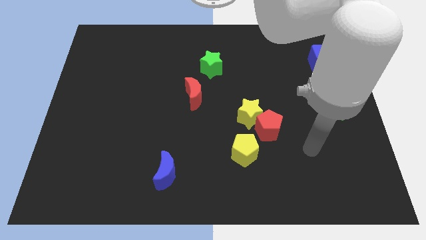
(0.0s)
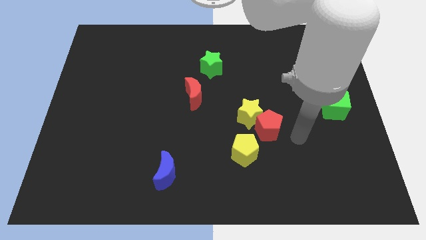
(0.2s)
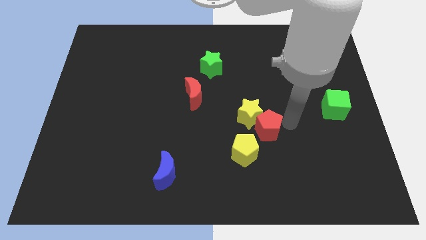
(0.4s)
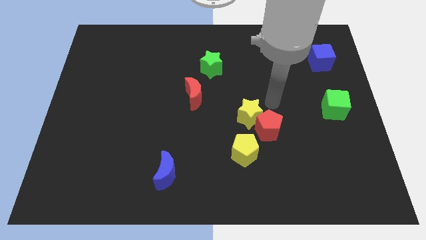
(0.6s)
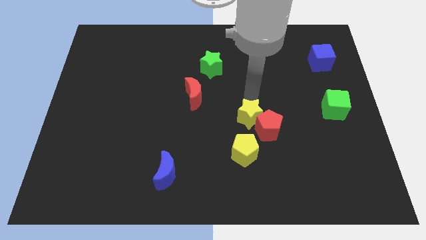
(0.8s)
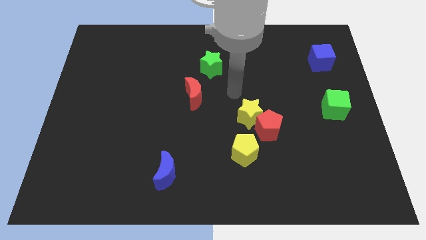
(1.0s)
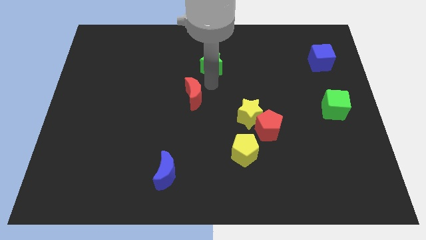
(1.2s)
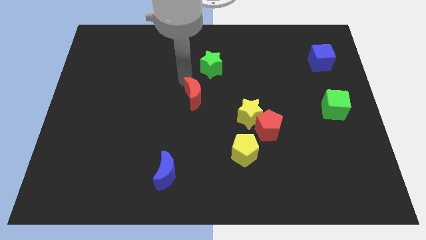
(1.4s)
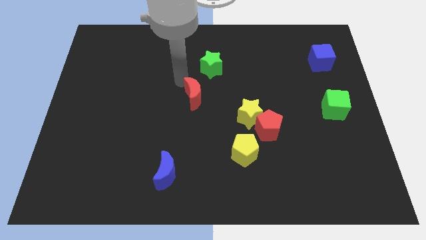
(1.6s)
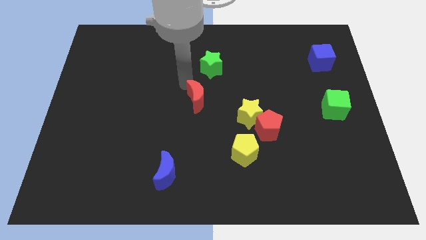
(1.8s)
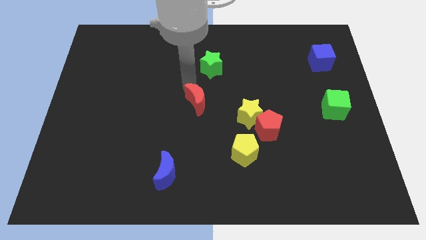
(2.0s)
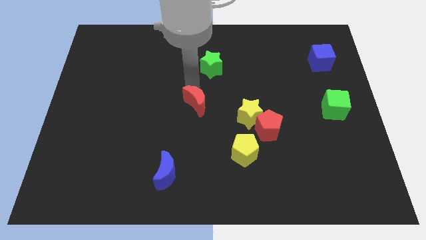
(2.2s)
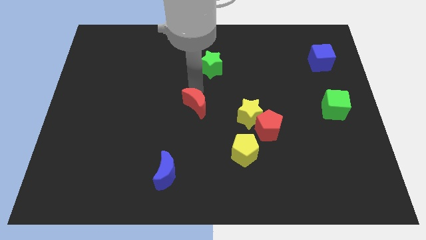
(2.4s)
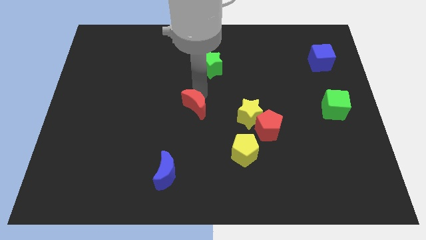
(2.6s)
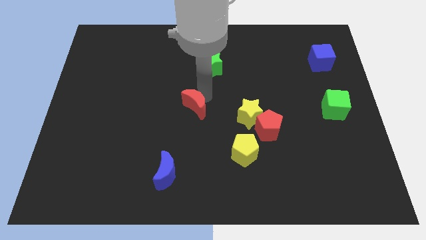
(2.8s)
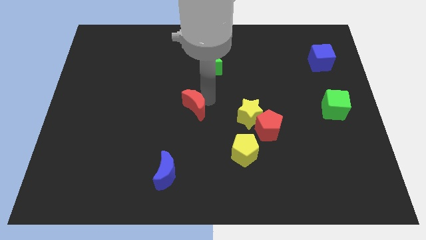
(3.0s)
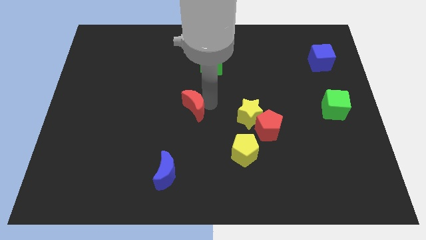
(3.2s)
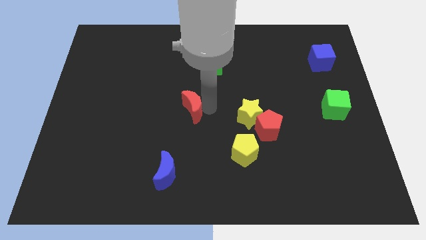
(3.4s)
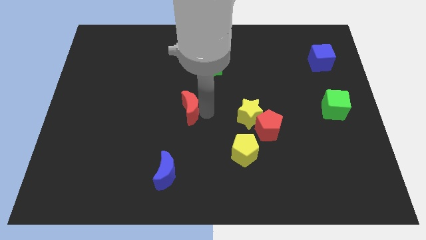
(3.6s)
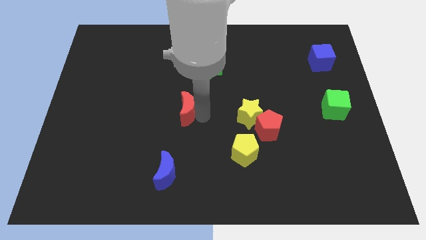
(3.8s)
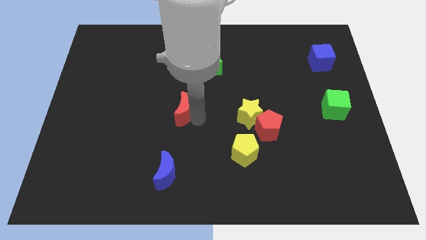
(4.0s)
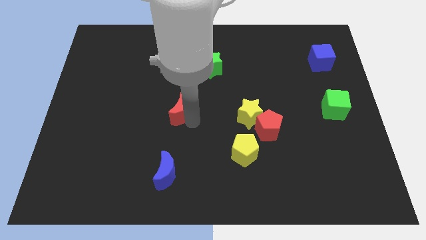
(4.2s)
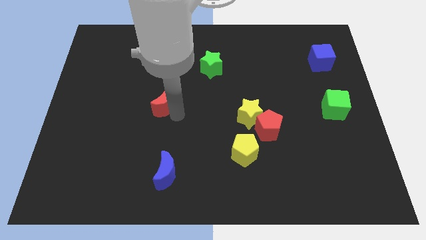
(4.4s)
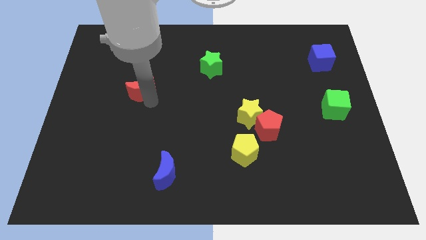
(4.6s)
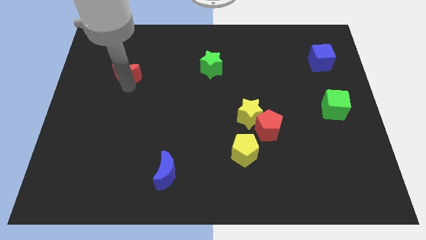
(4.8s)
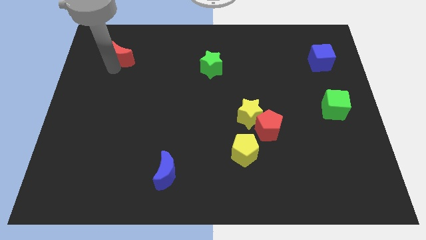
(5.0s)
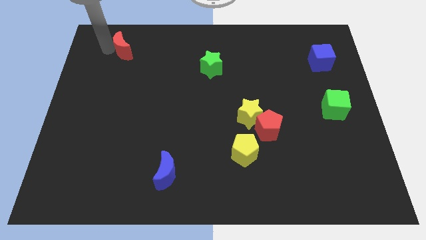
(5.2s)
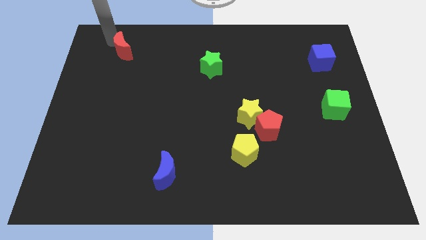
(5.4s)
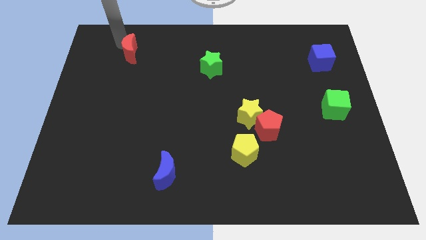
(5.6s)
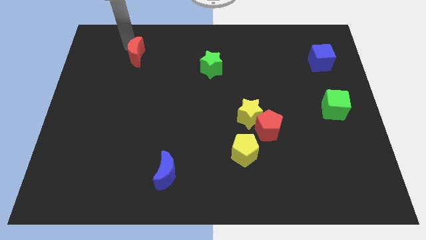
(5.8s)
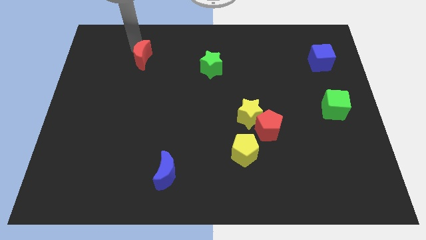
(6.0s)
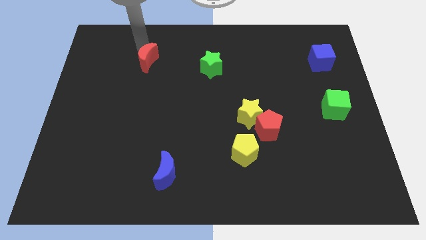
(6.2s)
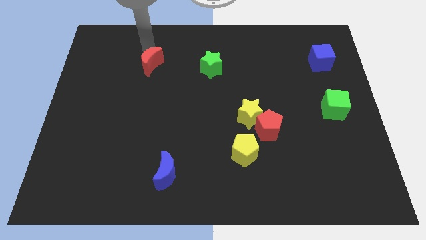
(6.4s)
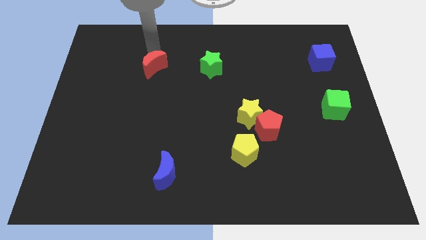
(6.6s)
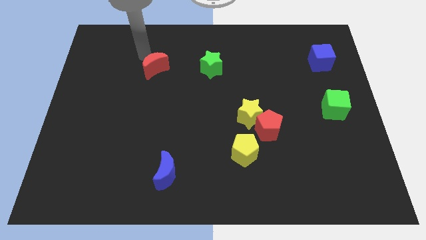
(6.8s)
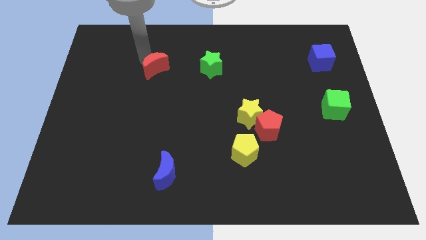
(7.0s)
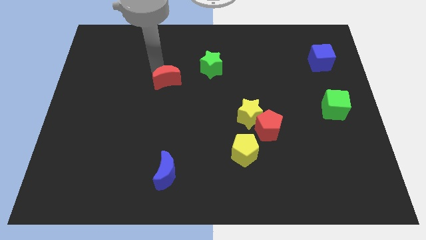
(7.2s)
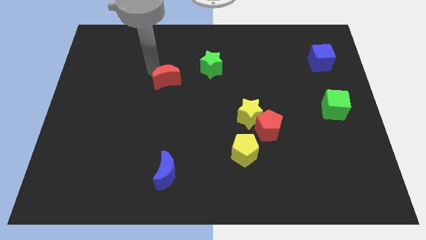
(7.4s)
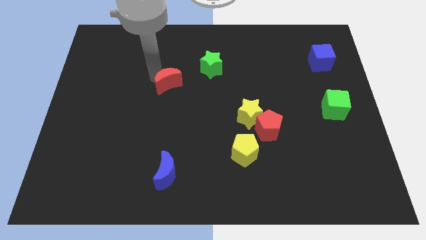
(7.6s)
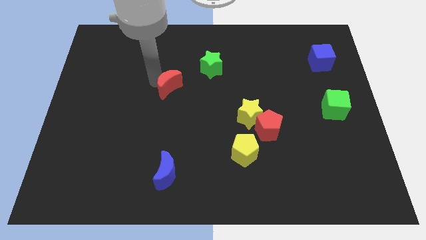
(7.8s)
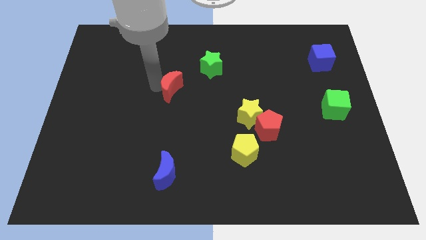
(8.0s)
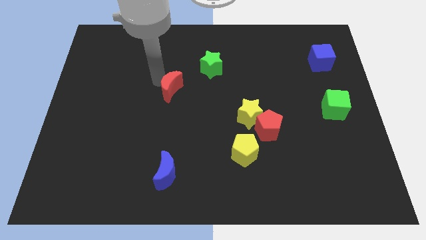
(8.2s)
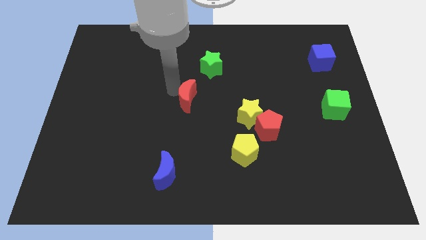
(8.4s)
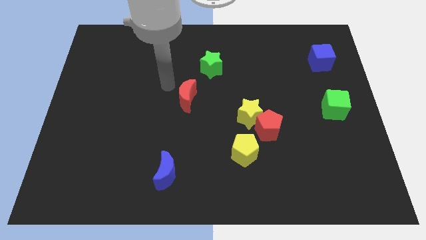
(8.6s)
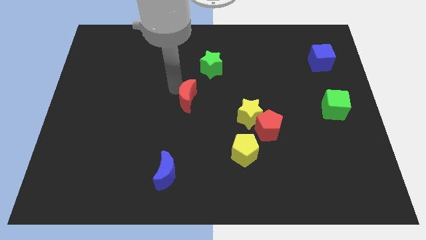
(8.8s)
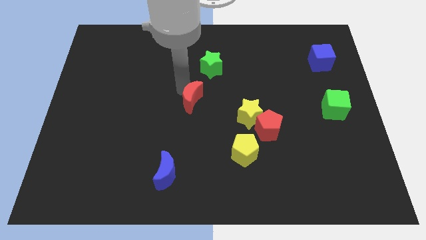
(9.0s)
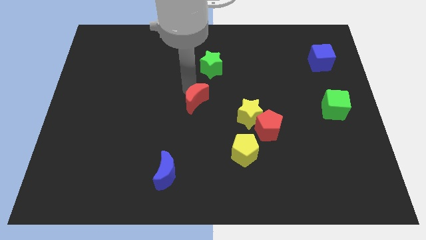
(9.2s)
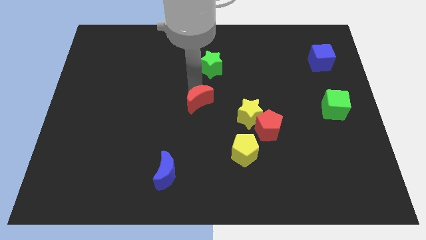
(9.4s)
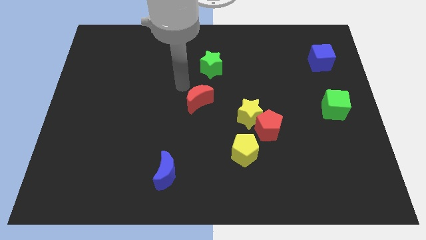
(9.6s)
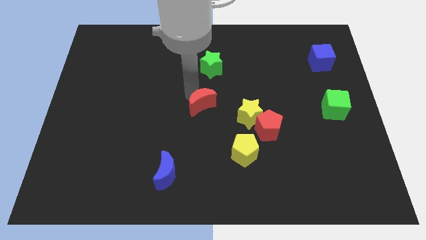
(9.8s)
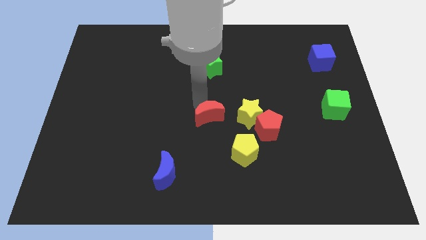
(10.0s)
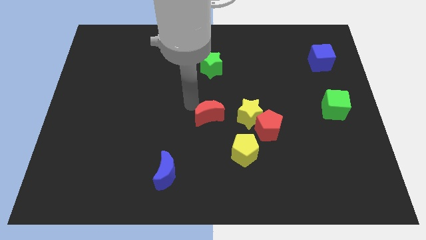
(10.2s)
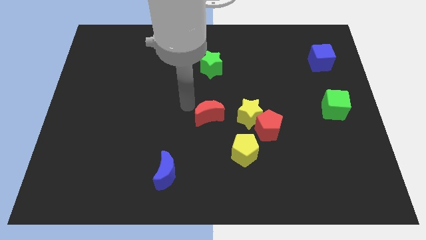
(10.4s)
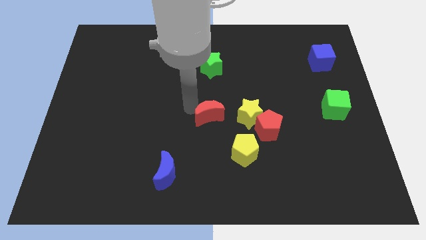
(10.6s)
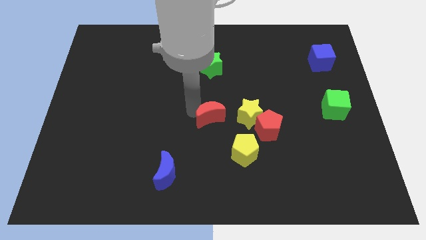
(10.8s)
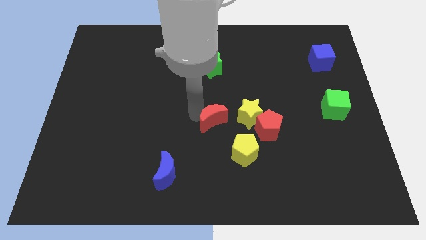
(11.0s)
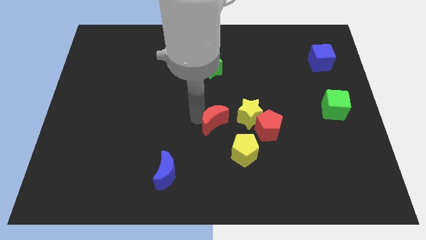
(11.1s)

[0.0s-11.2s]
push the red moon diagonally down and to the left of the yellow star

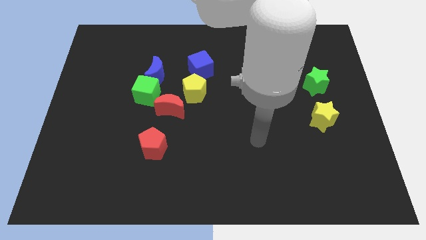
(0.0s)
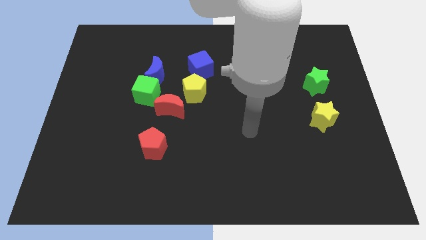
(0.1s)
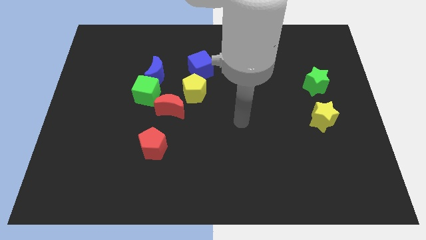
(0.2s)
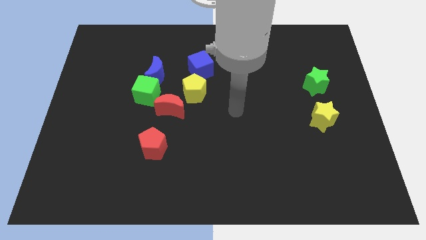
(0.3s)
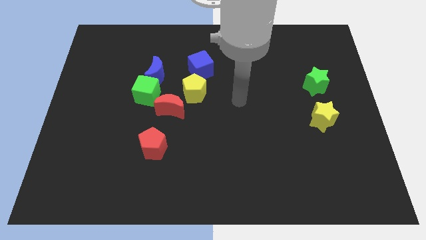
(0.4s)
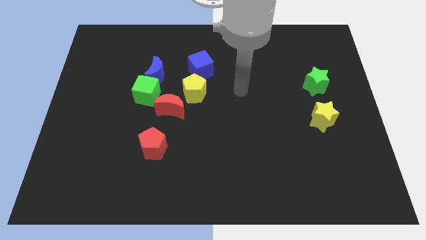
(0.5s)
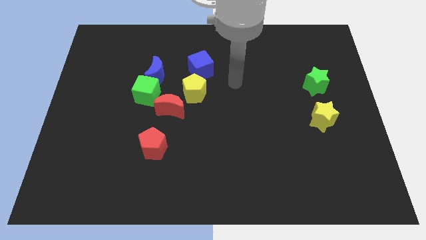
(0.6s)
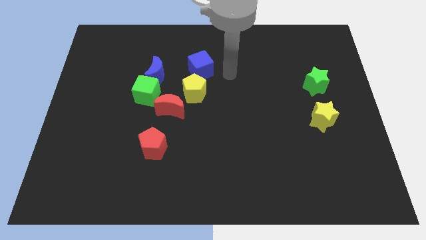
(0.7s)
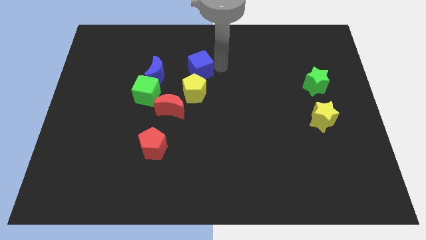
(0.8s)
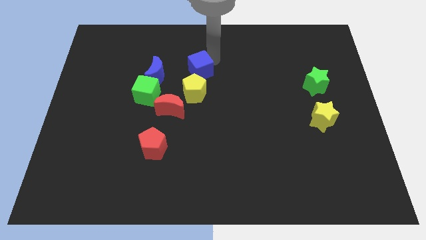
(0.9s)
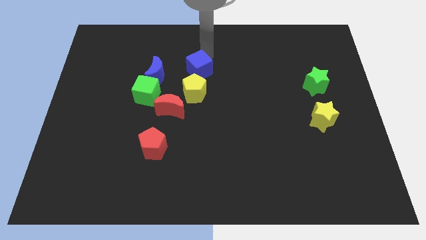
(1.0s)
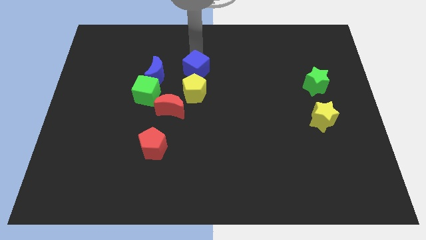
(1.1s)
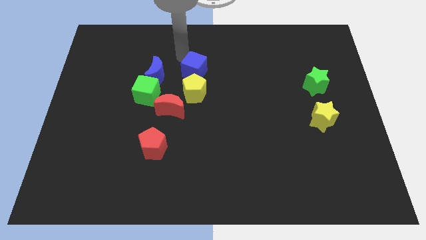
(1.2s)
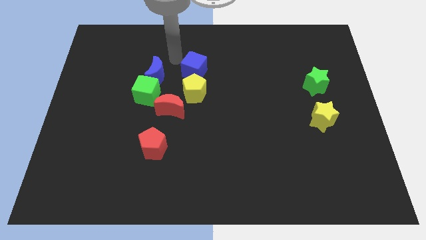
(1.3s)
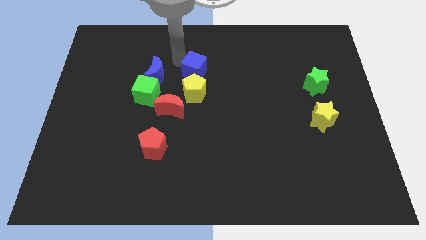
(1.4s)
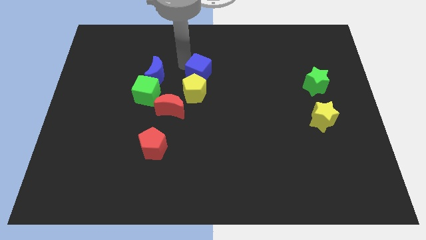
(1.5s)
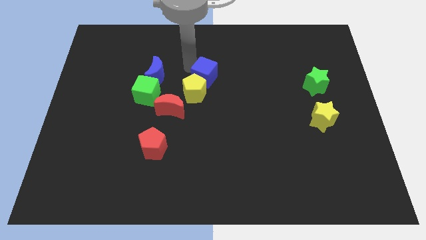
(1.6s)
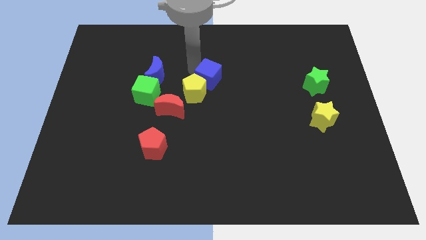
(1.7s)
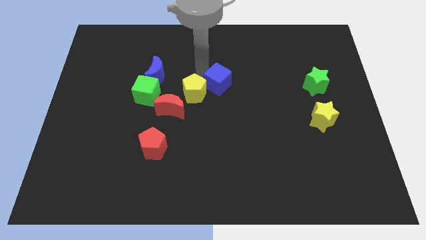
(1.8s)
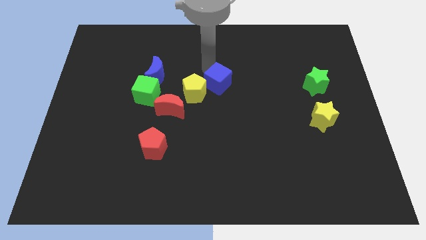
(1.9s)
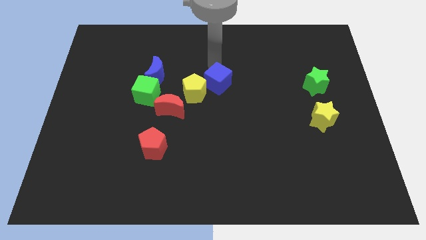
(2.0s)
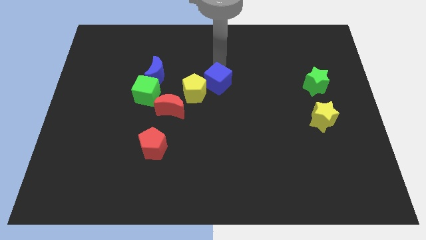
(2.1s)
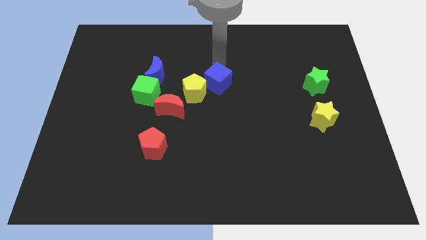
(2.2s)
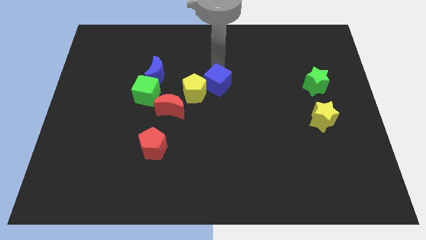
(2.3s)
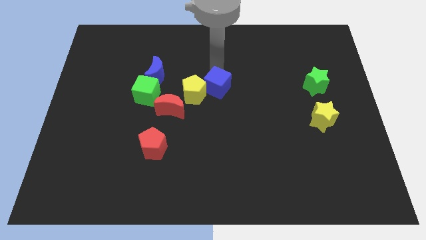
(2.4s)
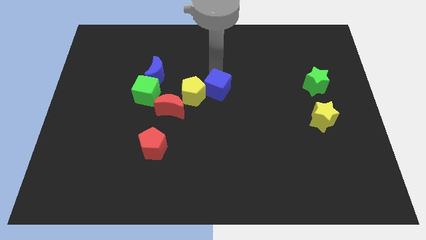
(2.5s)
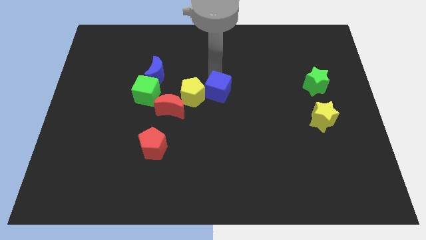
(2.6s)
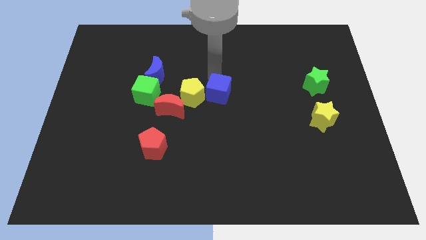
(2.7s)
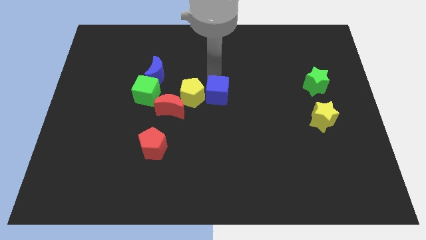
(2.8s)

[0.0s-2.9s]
put the blue cube to the right side of the red moon
